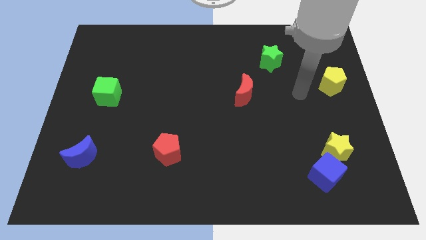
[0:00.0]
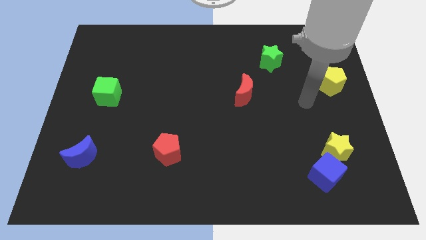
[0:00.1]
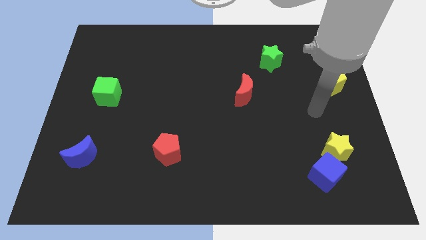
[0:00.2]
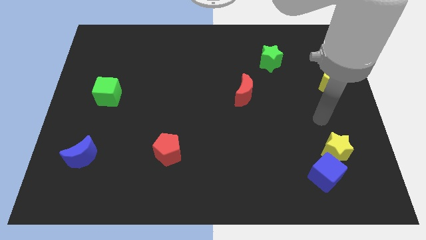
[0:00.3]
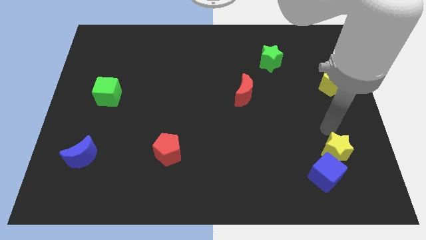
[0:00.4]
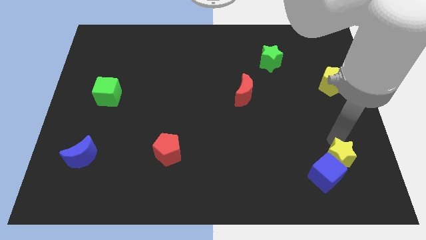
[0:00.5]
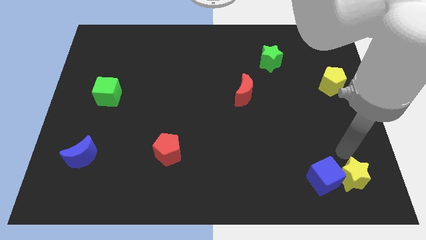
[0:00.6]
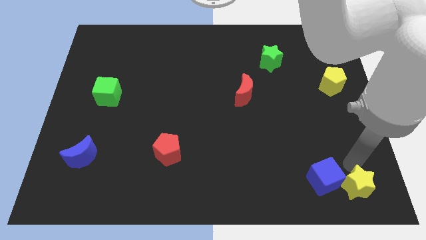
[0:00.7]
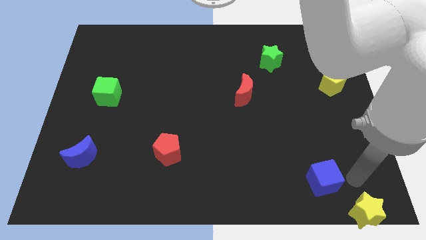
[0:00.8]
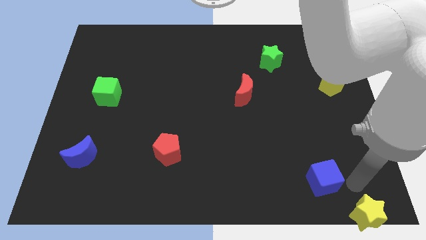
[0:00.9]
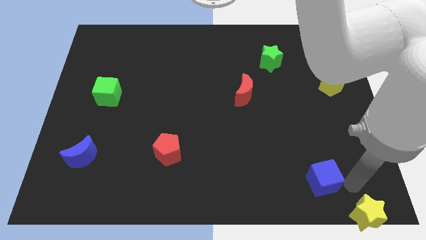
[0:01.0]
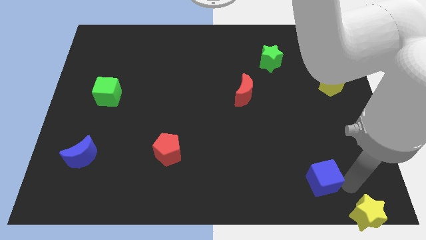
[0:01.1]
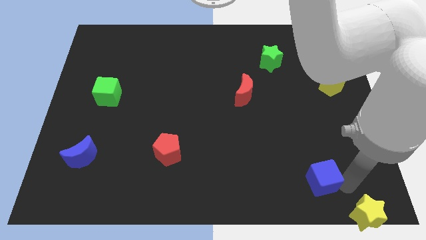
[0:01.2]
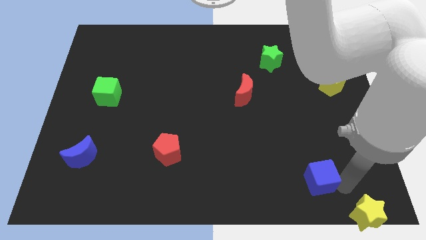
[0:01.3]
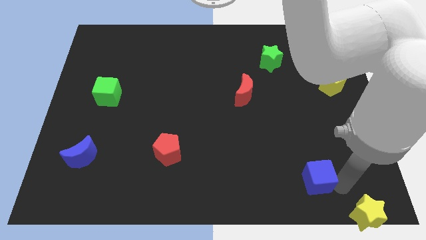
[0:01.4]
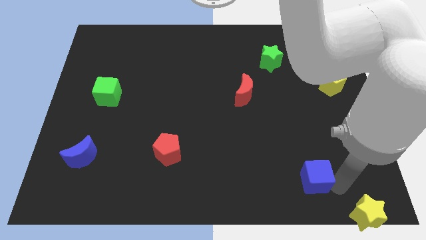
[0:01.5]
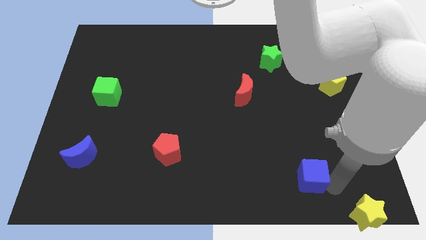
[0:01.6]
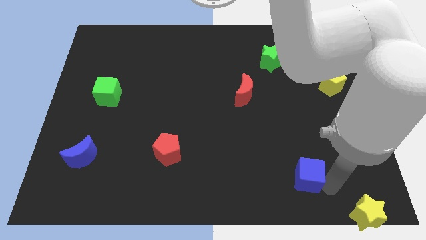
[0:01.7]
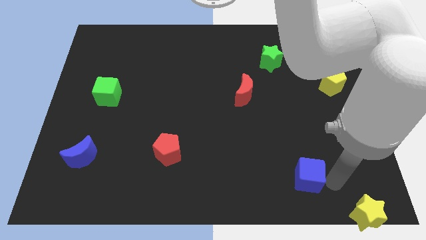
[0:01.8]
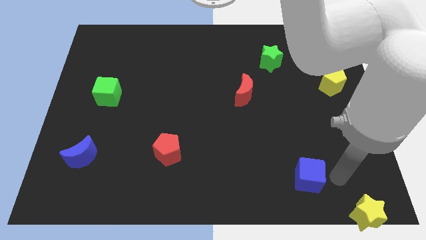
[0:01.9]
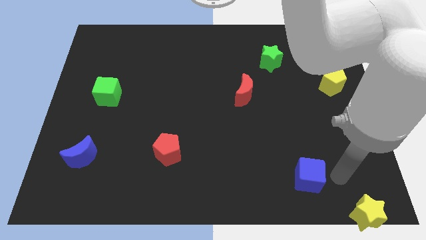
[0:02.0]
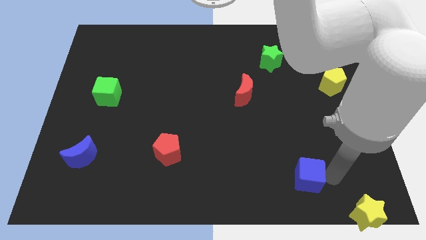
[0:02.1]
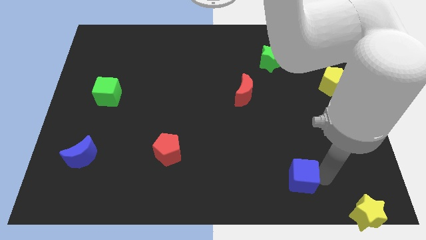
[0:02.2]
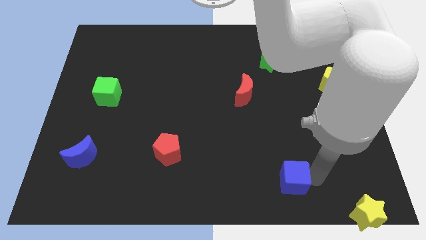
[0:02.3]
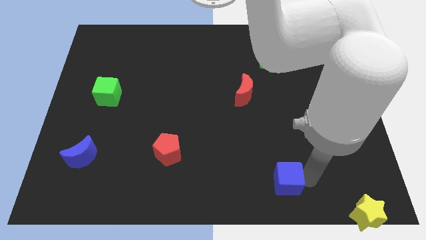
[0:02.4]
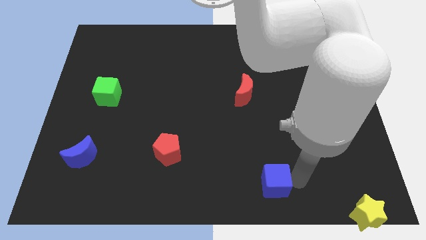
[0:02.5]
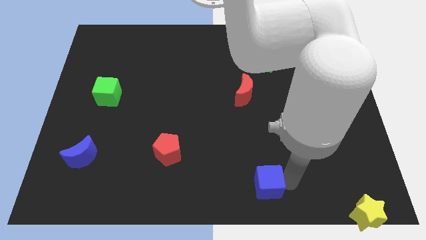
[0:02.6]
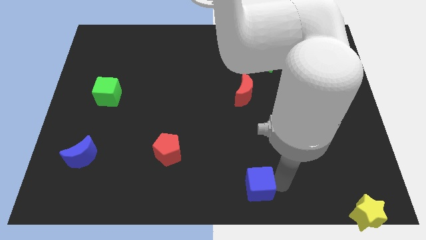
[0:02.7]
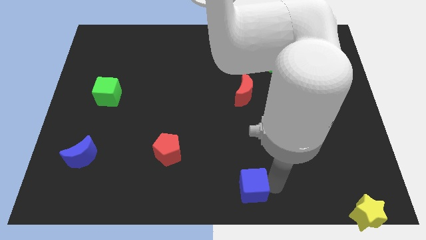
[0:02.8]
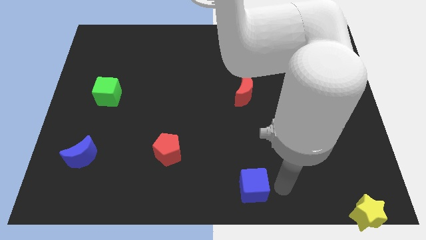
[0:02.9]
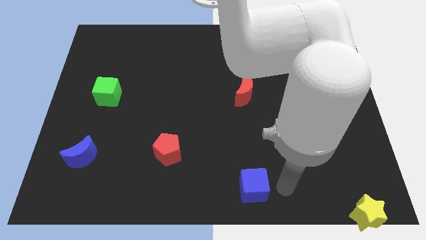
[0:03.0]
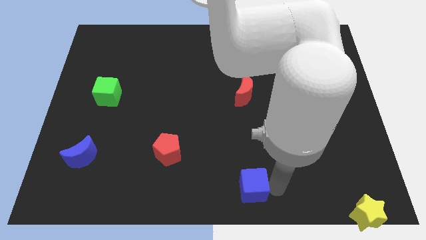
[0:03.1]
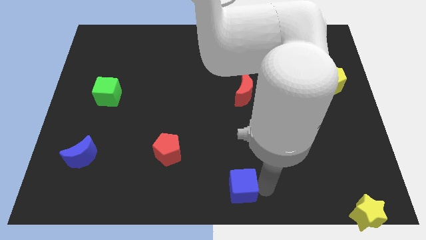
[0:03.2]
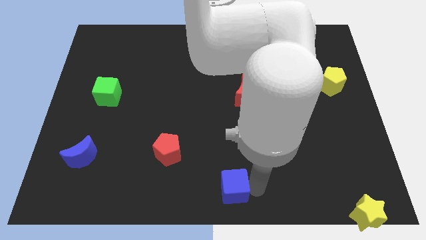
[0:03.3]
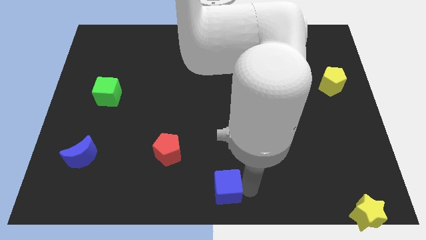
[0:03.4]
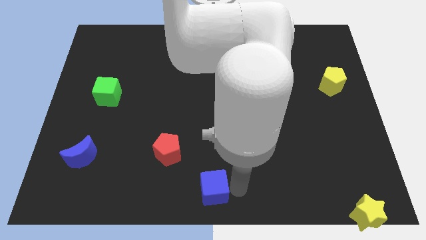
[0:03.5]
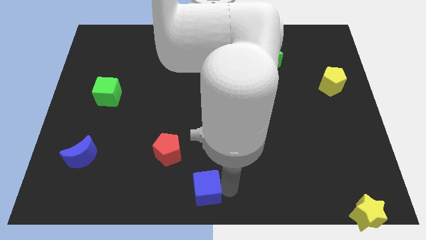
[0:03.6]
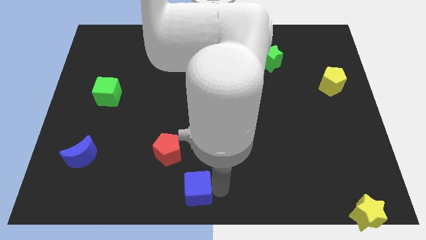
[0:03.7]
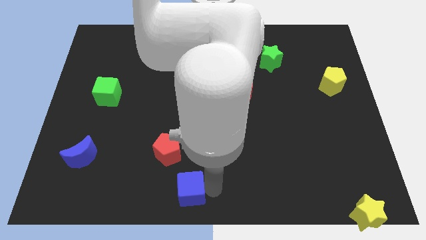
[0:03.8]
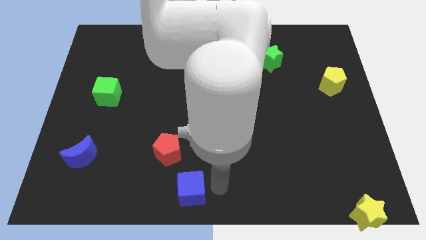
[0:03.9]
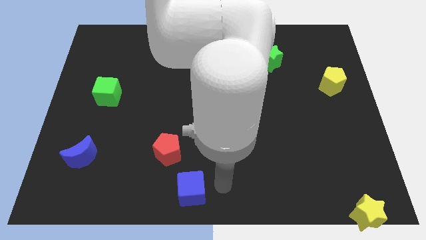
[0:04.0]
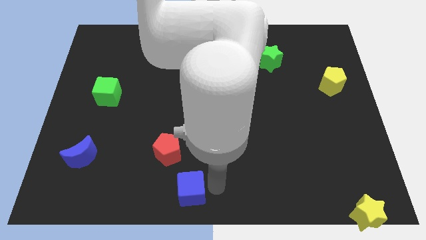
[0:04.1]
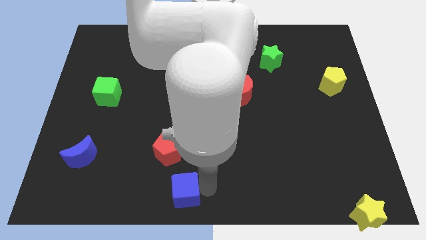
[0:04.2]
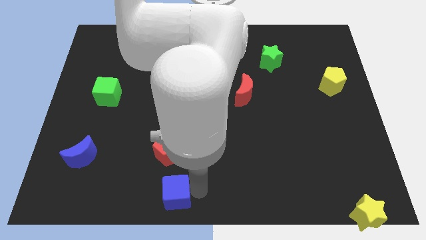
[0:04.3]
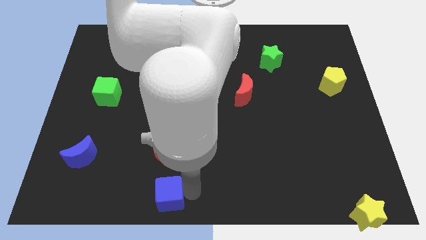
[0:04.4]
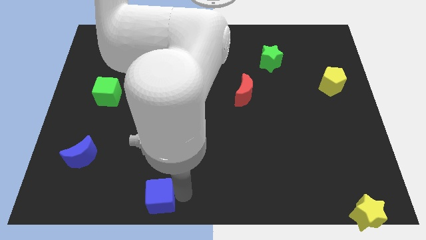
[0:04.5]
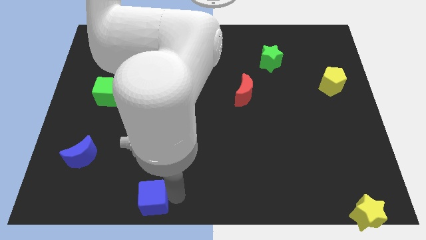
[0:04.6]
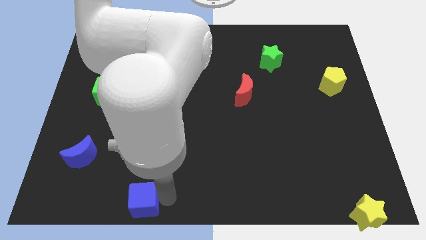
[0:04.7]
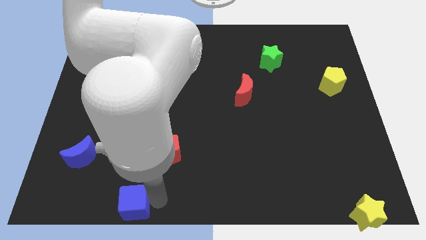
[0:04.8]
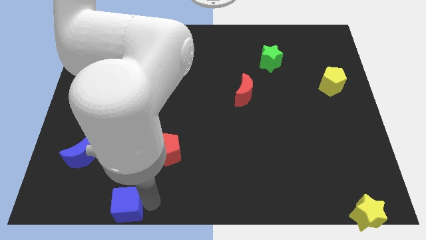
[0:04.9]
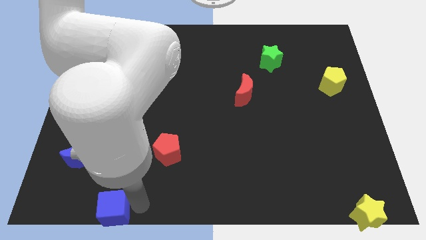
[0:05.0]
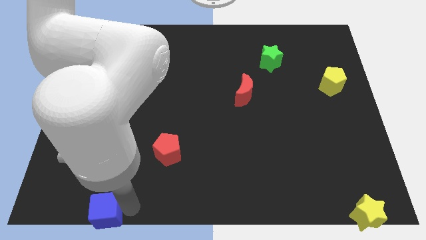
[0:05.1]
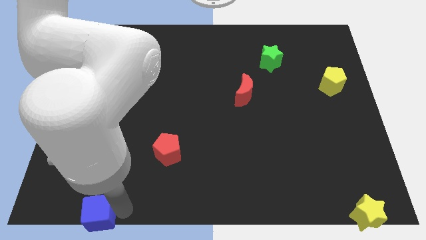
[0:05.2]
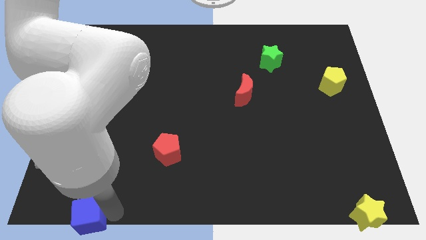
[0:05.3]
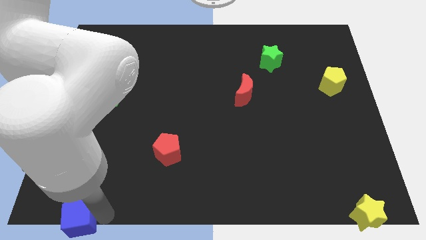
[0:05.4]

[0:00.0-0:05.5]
move the blue cube to the bottom left corner

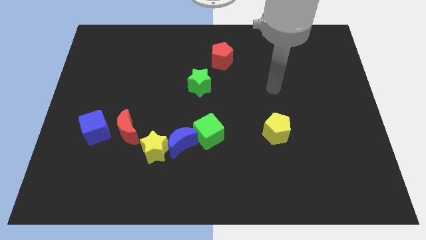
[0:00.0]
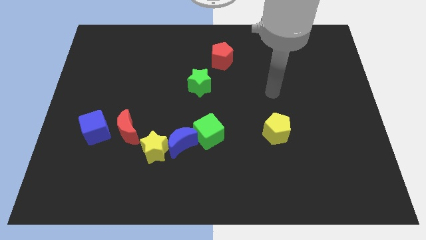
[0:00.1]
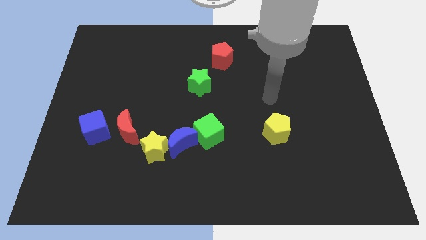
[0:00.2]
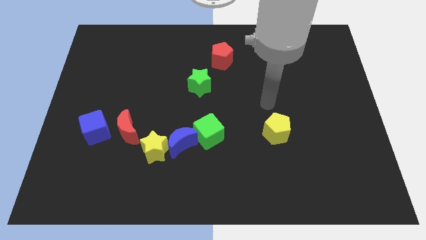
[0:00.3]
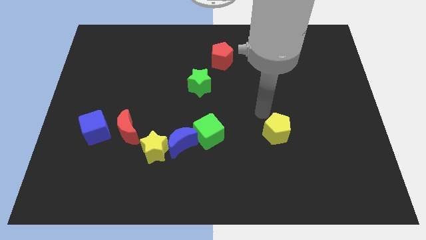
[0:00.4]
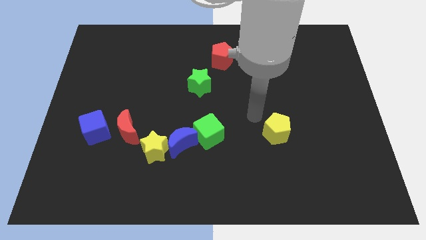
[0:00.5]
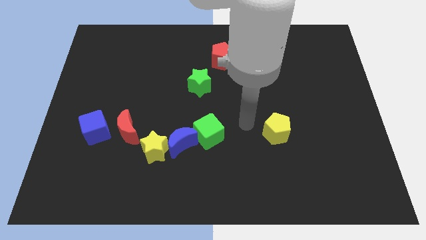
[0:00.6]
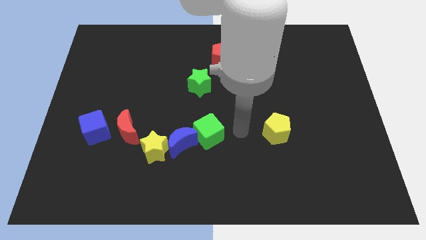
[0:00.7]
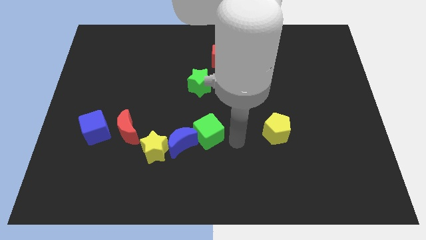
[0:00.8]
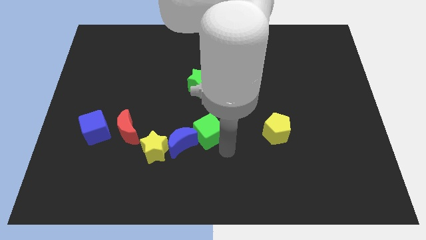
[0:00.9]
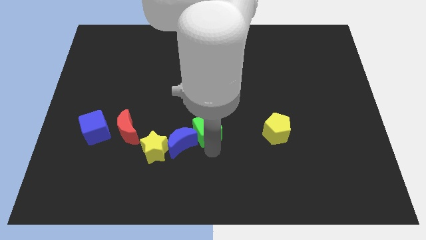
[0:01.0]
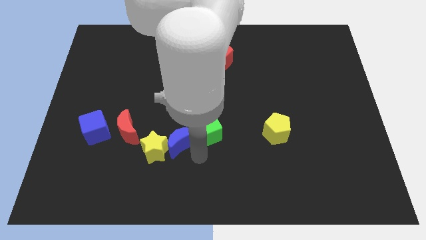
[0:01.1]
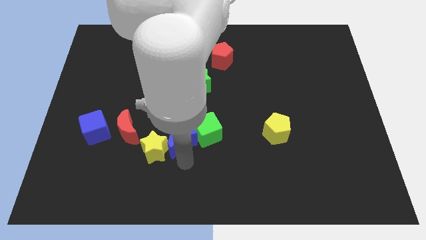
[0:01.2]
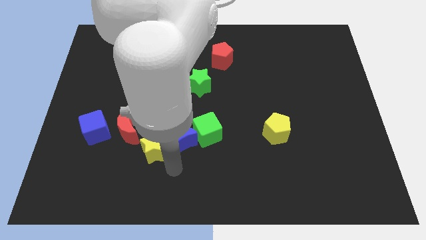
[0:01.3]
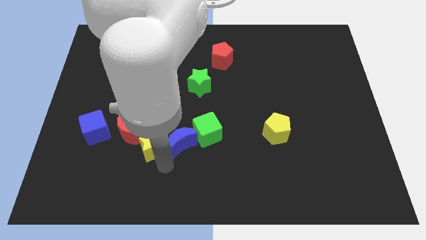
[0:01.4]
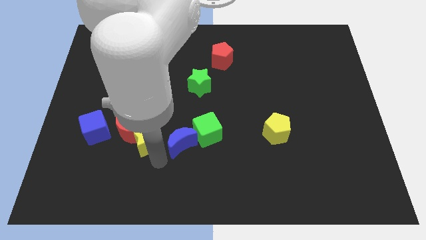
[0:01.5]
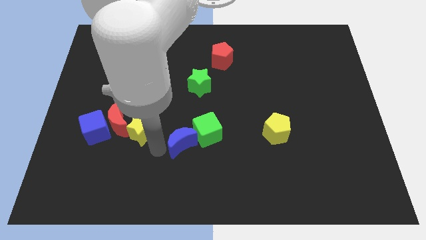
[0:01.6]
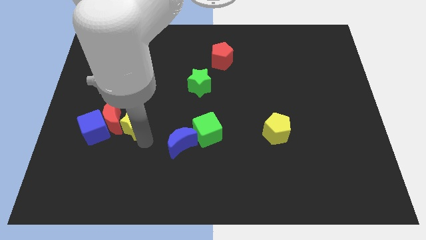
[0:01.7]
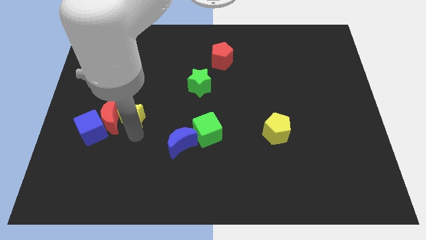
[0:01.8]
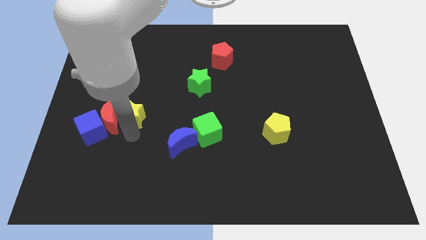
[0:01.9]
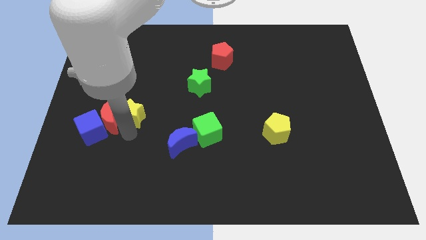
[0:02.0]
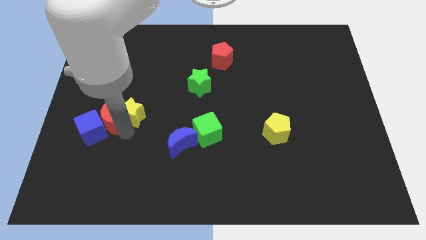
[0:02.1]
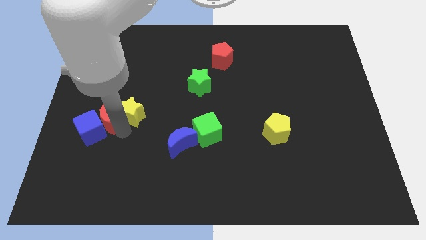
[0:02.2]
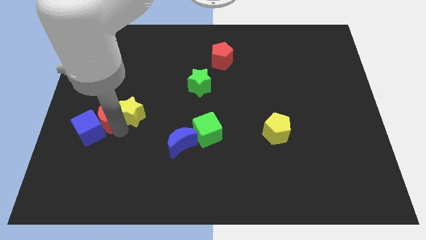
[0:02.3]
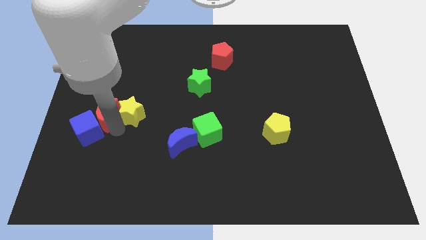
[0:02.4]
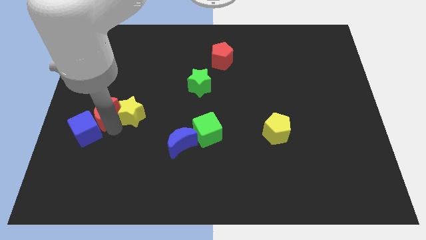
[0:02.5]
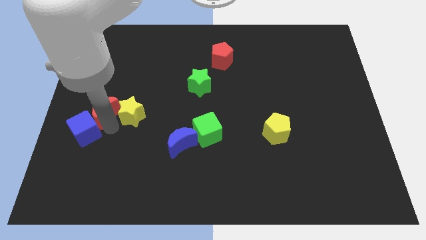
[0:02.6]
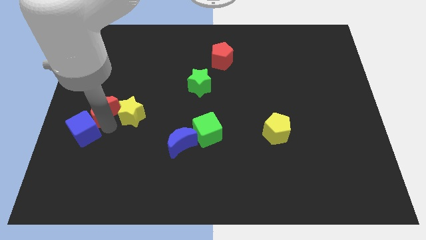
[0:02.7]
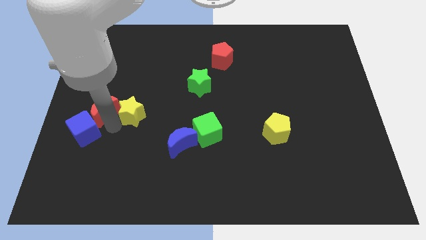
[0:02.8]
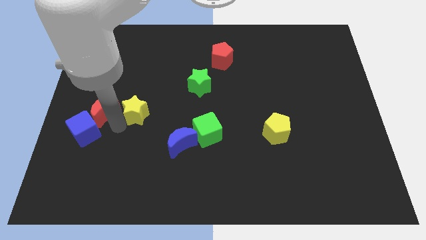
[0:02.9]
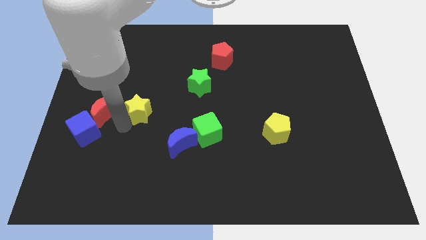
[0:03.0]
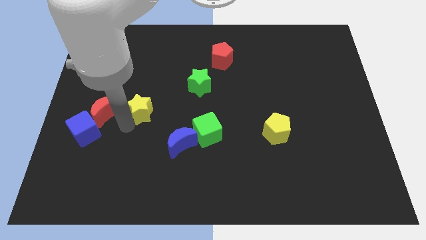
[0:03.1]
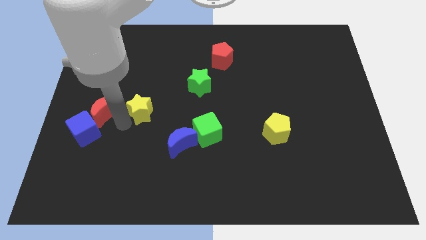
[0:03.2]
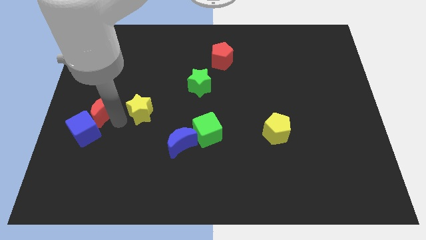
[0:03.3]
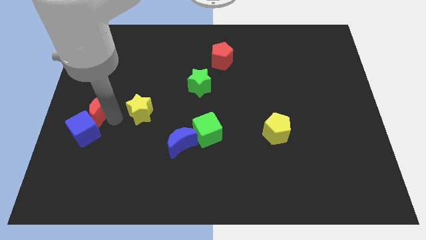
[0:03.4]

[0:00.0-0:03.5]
slide the red moon to the left side
